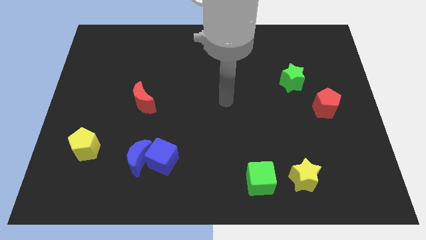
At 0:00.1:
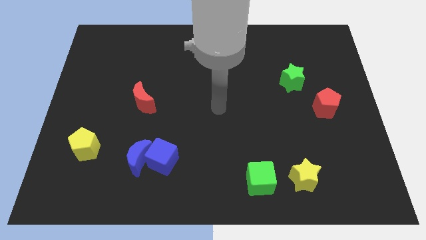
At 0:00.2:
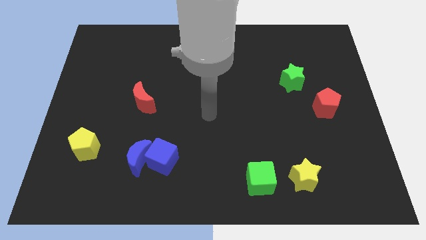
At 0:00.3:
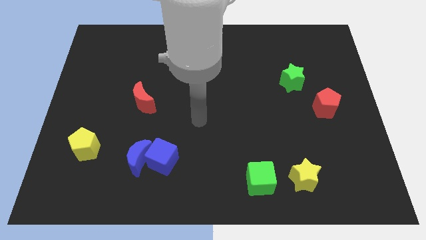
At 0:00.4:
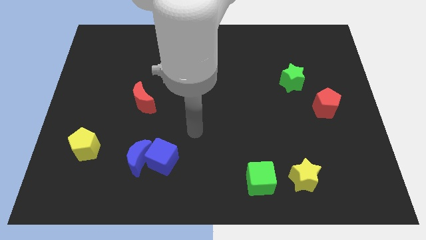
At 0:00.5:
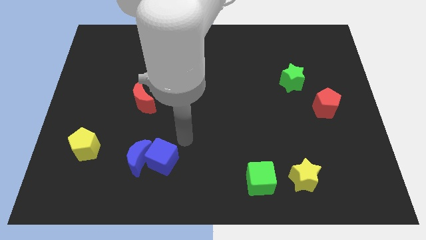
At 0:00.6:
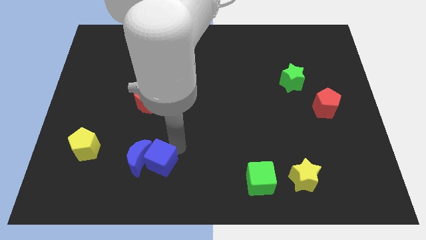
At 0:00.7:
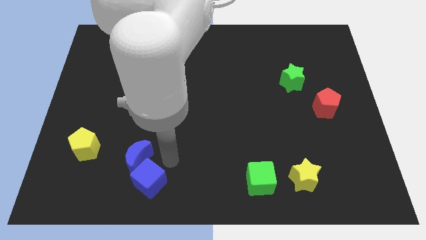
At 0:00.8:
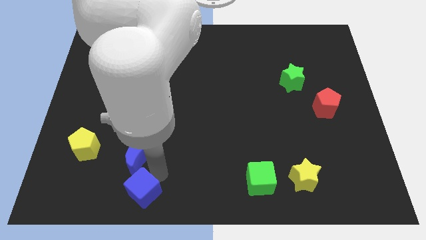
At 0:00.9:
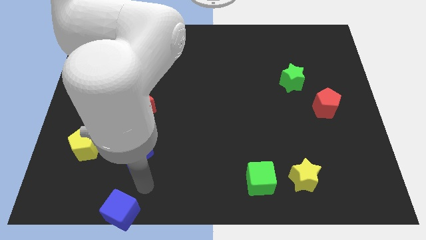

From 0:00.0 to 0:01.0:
separate the blue moon from the blue cube

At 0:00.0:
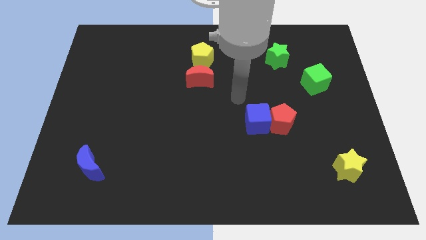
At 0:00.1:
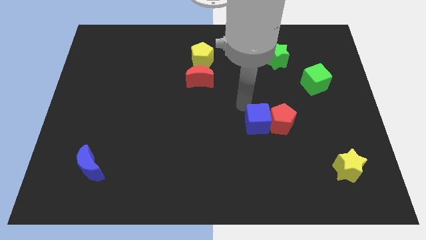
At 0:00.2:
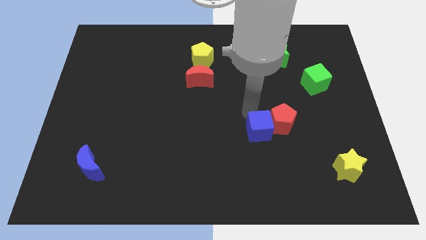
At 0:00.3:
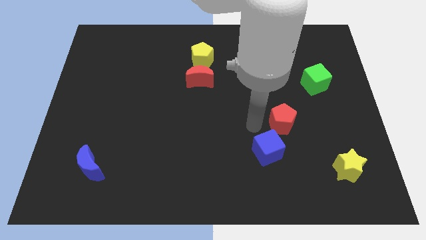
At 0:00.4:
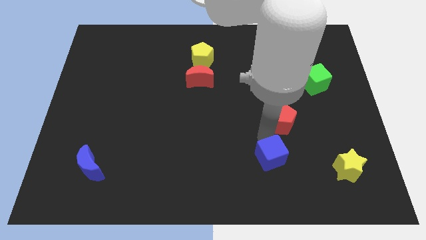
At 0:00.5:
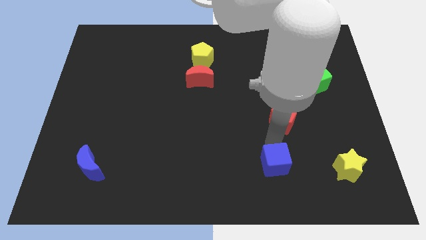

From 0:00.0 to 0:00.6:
separate the red pentagon from the blue cube

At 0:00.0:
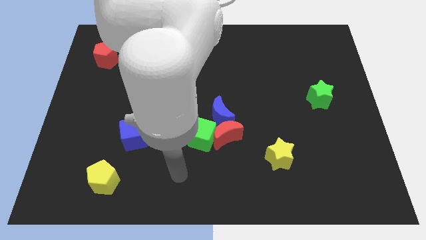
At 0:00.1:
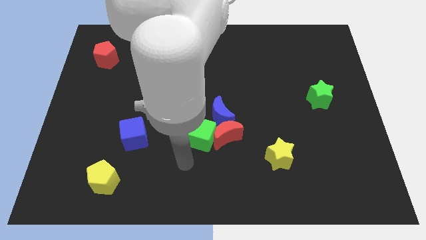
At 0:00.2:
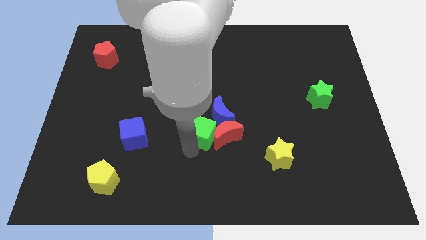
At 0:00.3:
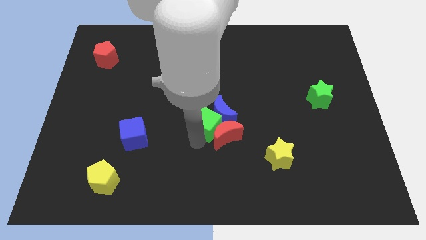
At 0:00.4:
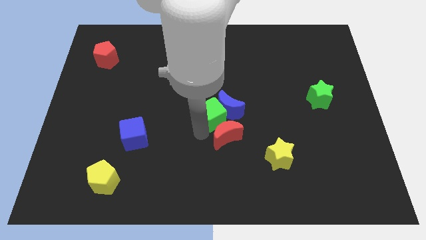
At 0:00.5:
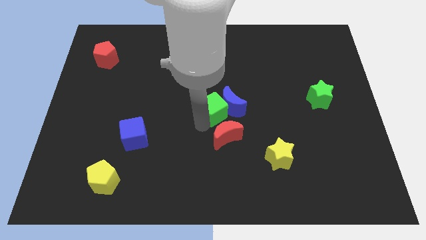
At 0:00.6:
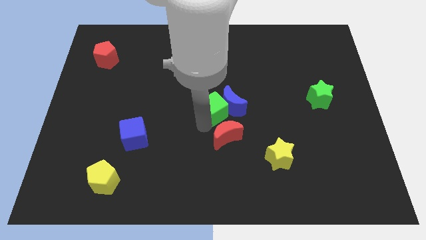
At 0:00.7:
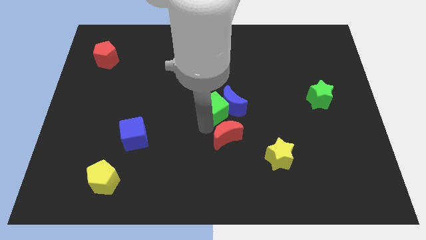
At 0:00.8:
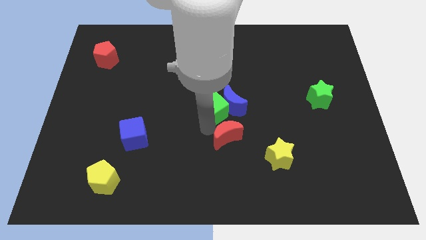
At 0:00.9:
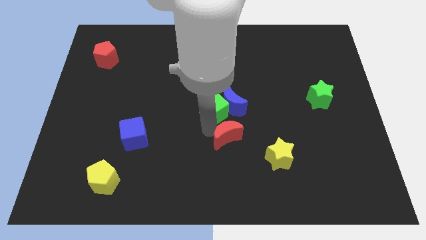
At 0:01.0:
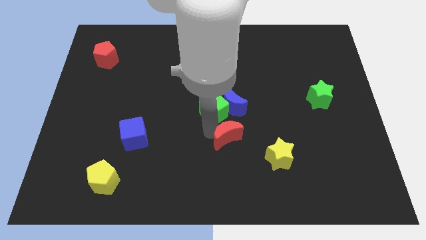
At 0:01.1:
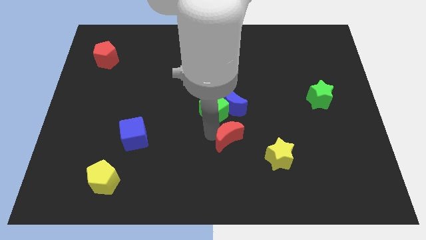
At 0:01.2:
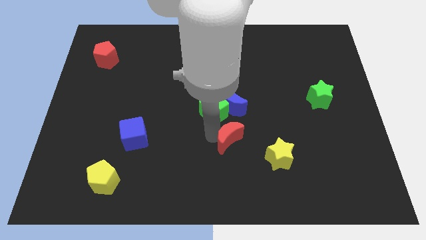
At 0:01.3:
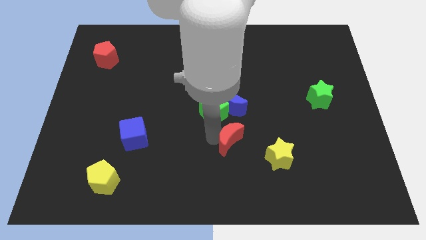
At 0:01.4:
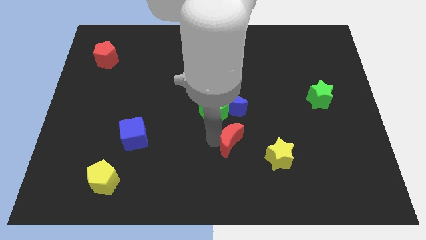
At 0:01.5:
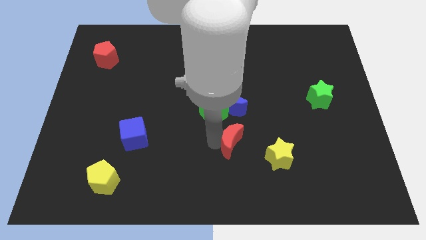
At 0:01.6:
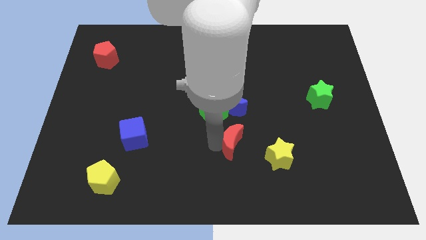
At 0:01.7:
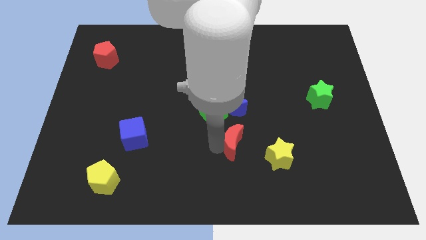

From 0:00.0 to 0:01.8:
pull the red moon apart from the green cube and blue moon

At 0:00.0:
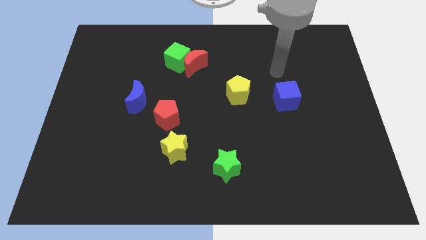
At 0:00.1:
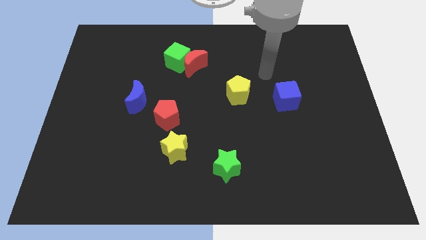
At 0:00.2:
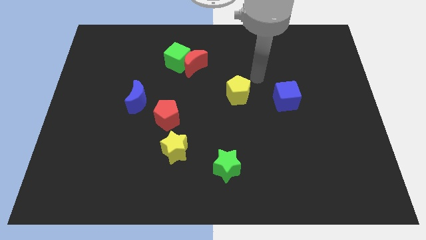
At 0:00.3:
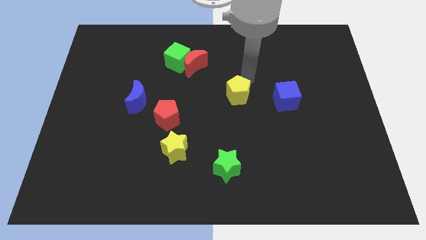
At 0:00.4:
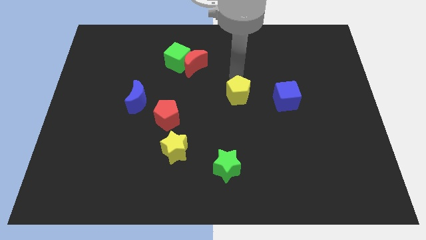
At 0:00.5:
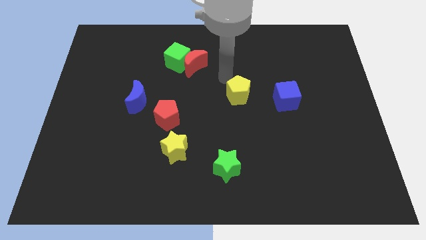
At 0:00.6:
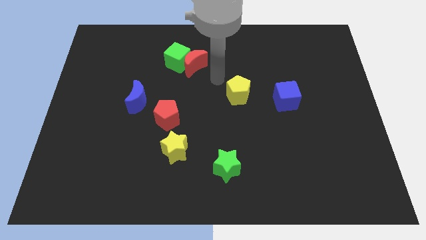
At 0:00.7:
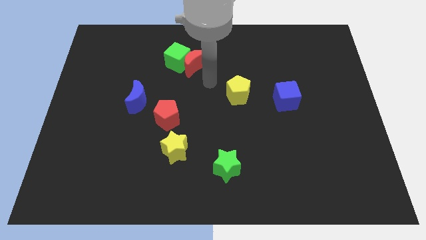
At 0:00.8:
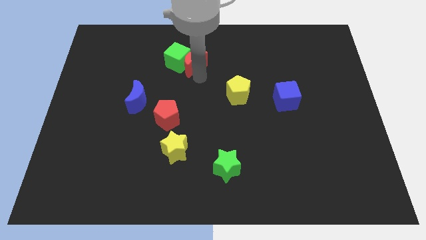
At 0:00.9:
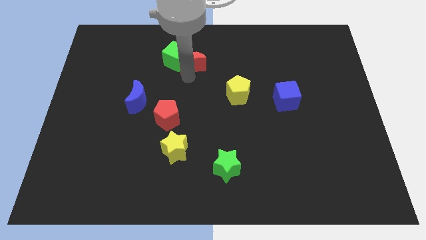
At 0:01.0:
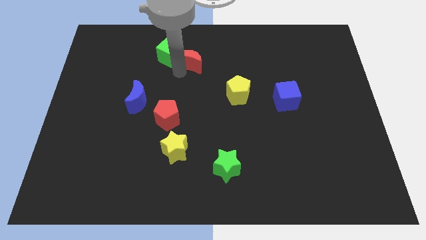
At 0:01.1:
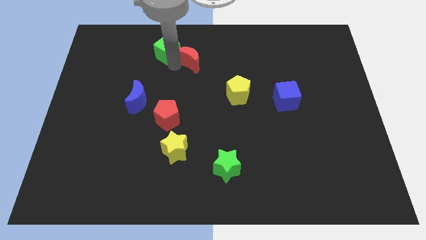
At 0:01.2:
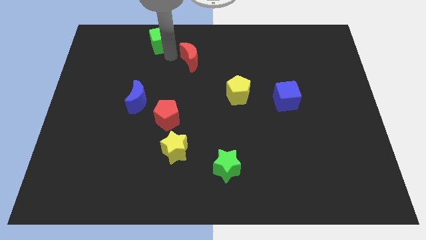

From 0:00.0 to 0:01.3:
pull the red moon apart from the green cube

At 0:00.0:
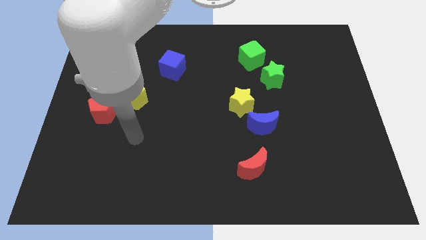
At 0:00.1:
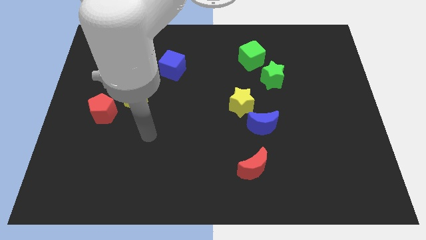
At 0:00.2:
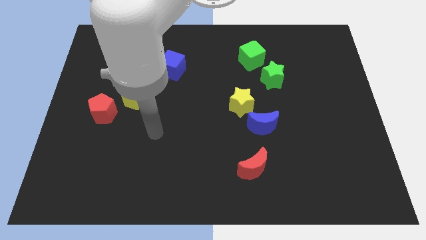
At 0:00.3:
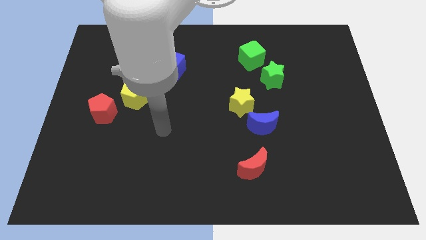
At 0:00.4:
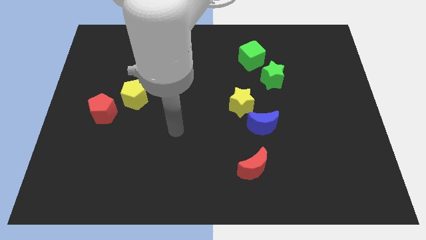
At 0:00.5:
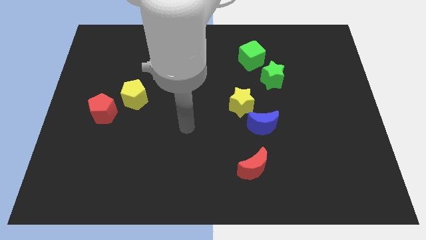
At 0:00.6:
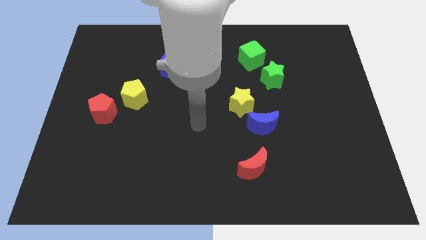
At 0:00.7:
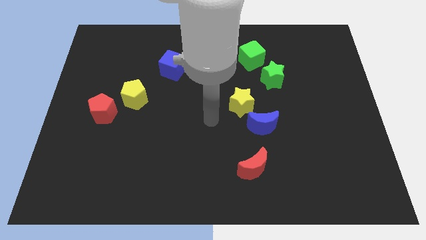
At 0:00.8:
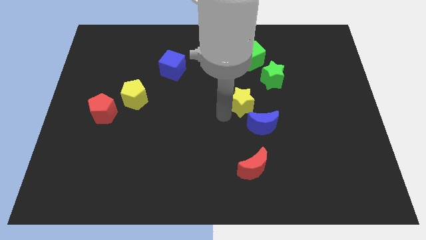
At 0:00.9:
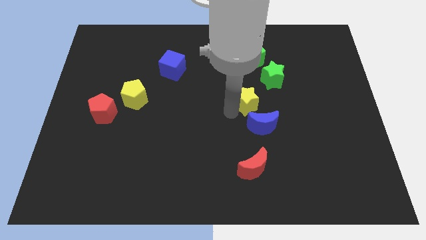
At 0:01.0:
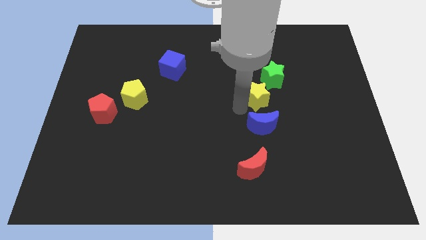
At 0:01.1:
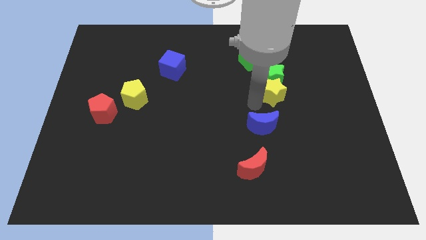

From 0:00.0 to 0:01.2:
separate the blue moon from the yellow star
